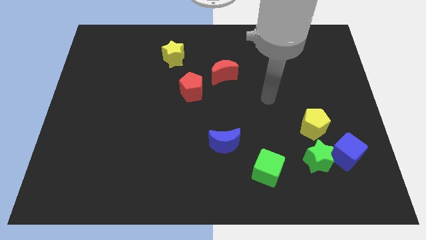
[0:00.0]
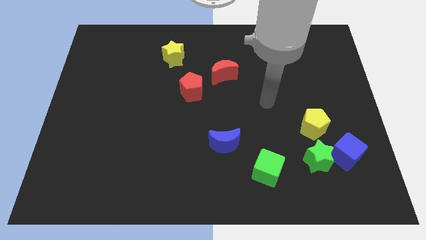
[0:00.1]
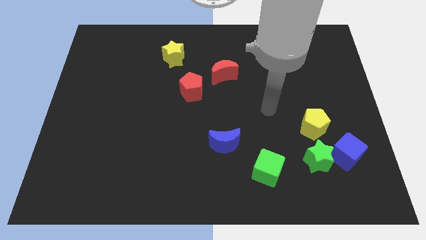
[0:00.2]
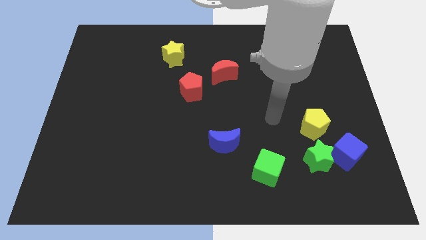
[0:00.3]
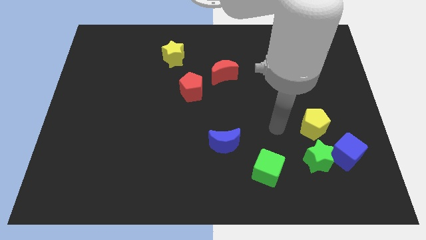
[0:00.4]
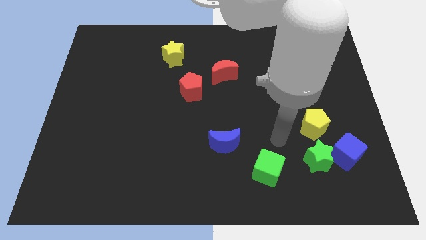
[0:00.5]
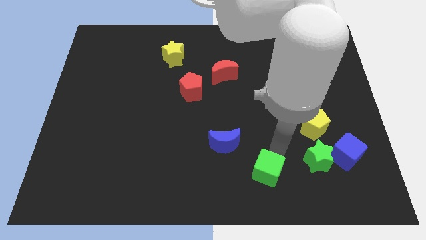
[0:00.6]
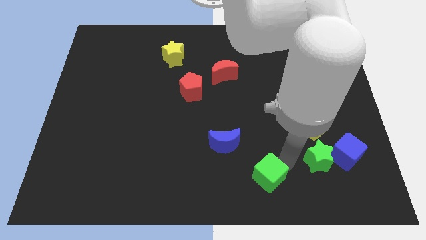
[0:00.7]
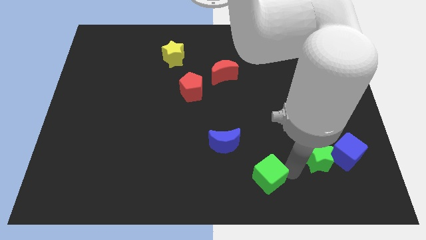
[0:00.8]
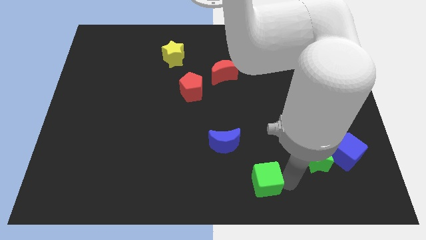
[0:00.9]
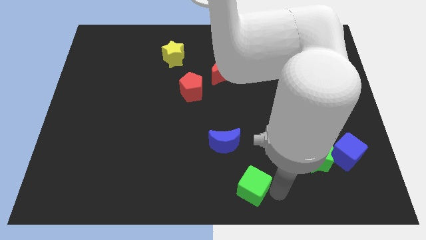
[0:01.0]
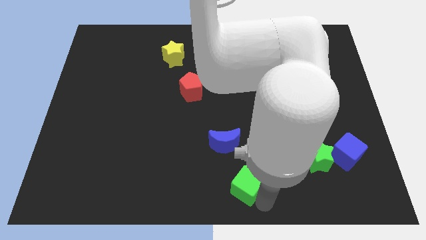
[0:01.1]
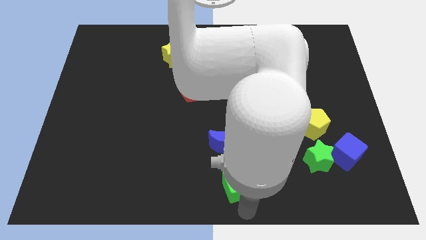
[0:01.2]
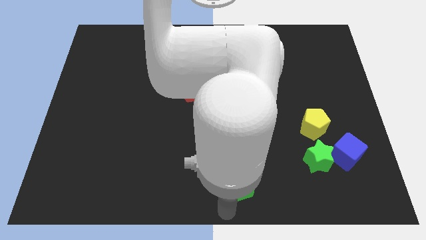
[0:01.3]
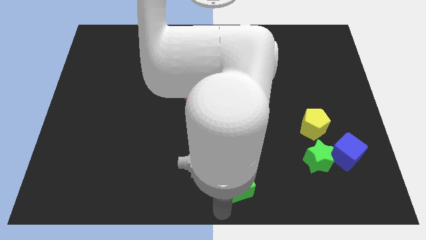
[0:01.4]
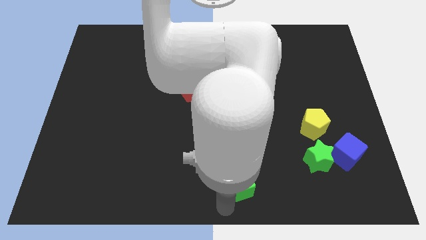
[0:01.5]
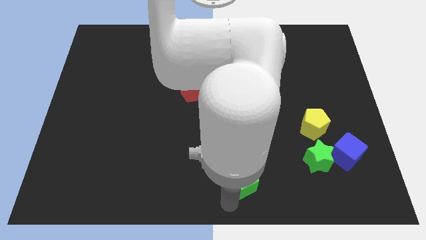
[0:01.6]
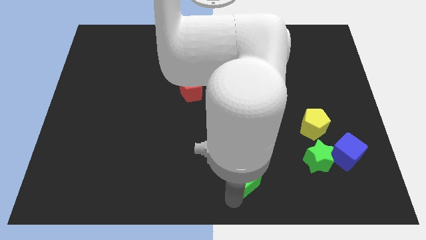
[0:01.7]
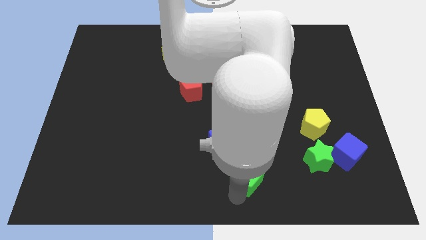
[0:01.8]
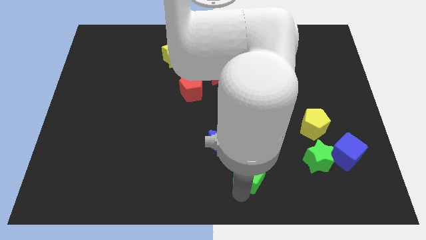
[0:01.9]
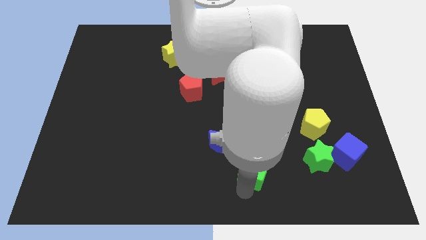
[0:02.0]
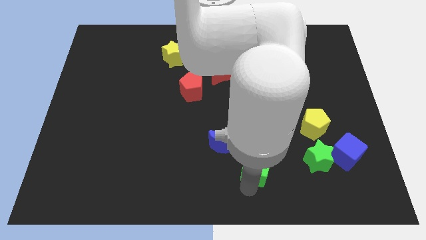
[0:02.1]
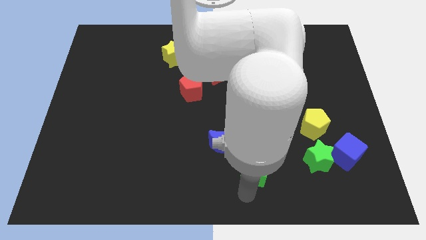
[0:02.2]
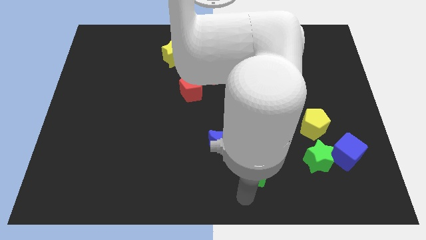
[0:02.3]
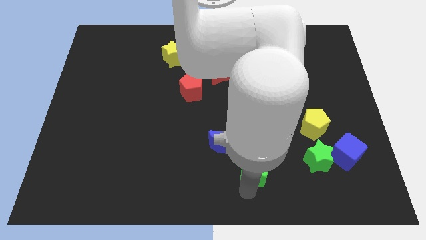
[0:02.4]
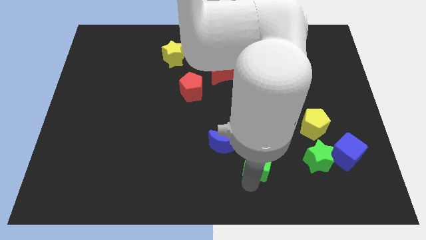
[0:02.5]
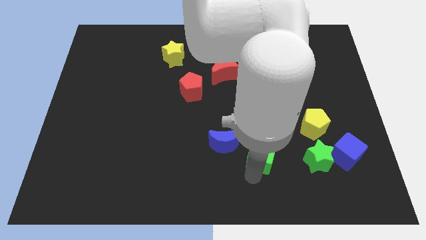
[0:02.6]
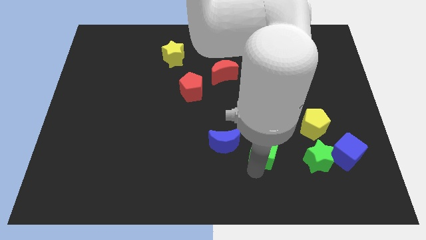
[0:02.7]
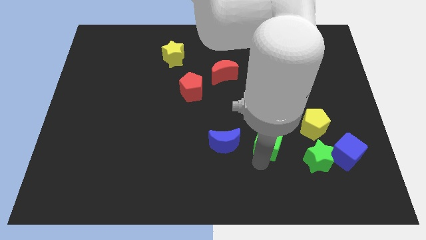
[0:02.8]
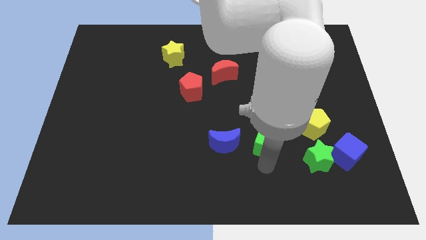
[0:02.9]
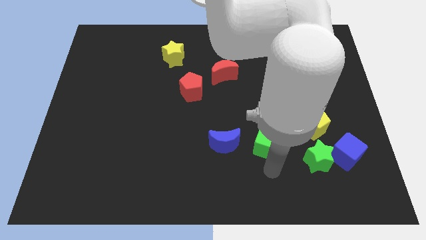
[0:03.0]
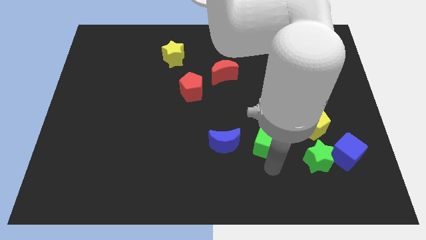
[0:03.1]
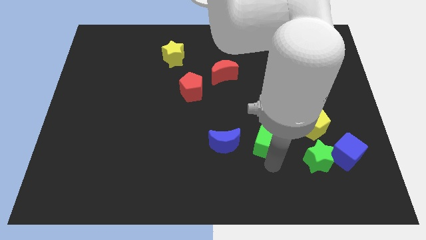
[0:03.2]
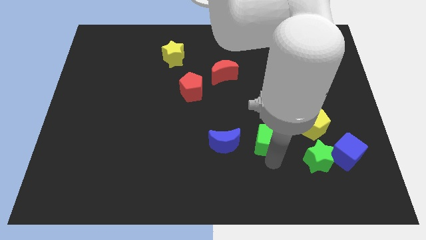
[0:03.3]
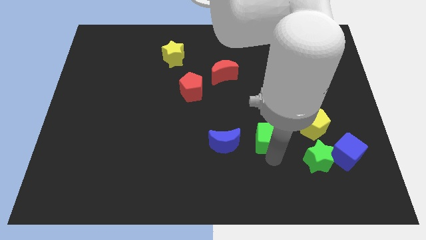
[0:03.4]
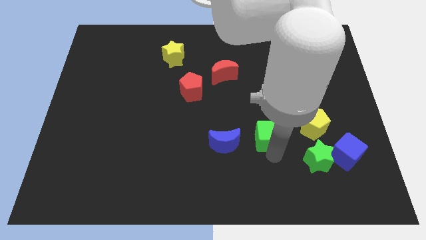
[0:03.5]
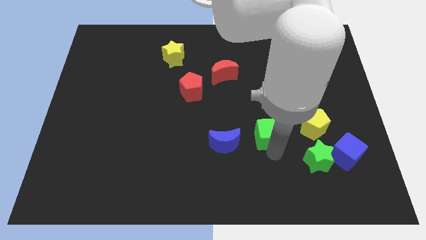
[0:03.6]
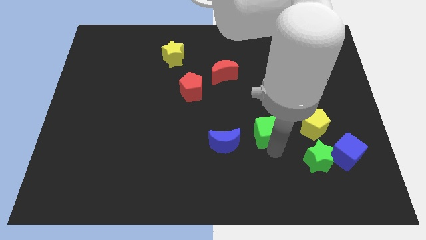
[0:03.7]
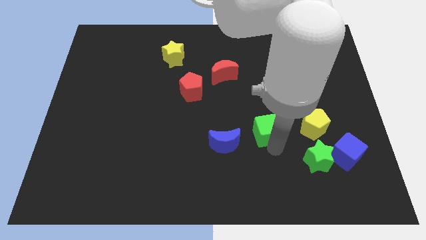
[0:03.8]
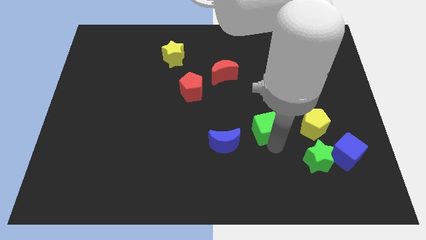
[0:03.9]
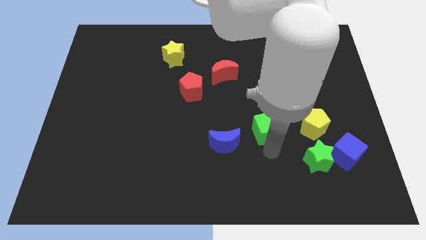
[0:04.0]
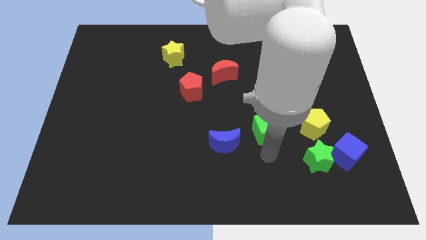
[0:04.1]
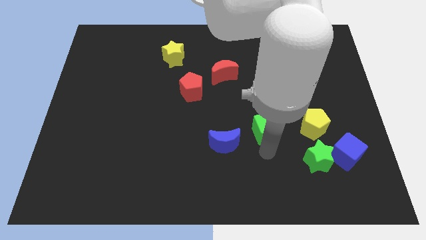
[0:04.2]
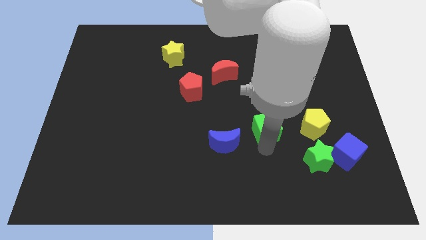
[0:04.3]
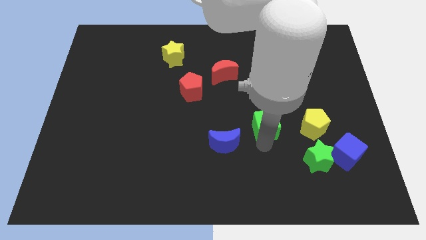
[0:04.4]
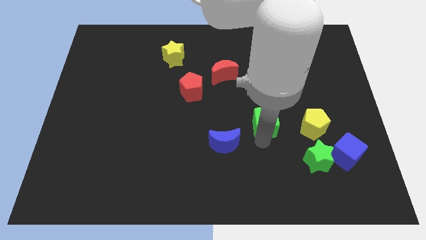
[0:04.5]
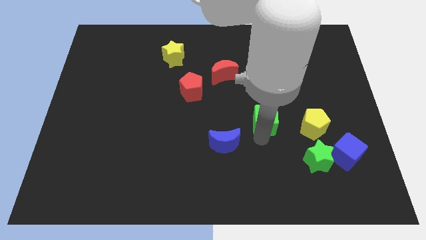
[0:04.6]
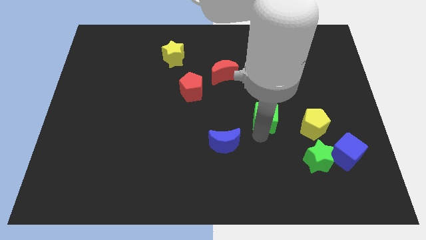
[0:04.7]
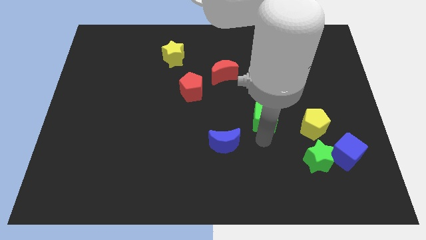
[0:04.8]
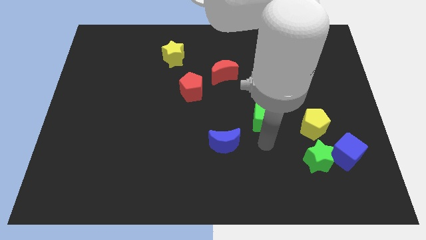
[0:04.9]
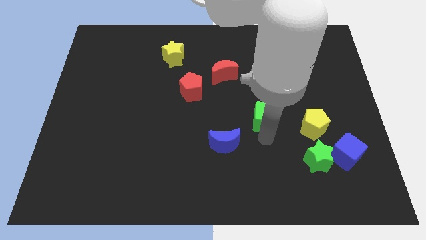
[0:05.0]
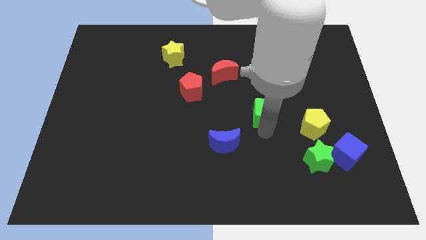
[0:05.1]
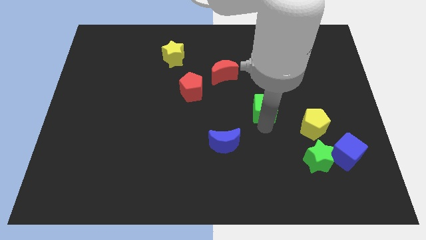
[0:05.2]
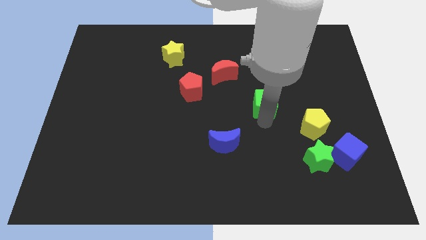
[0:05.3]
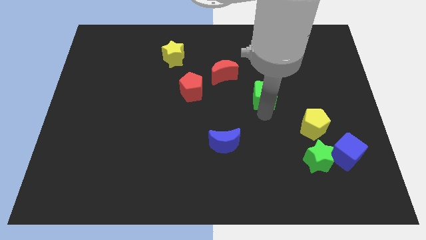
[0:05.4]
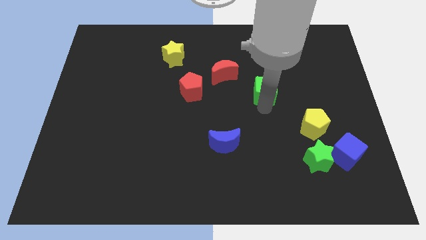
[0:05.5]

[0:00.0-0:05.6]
slide the green cube upwards

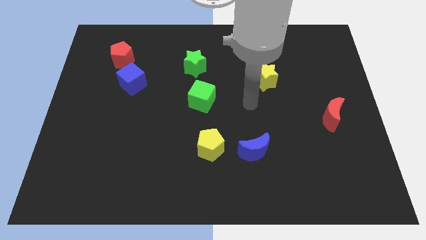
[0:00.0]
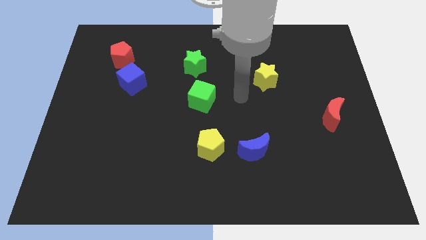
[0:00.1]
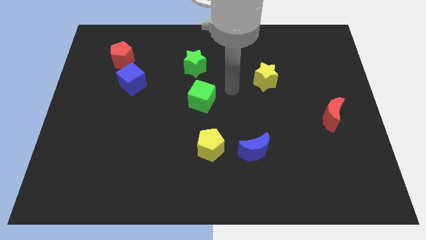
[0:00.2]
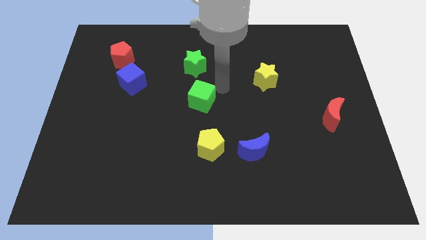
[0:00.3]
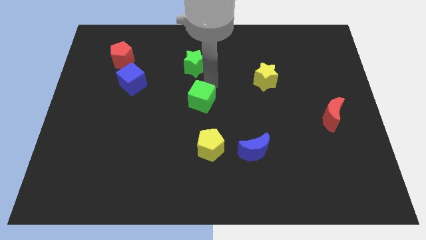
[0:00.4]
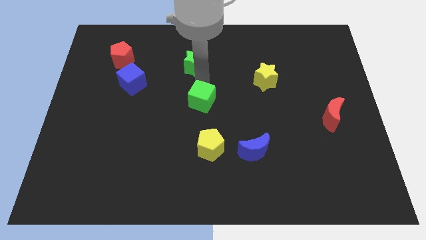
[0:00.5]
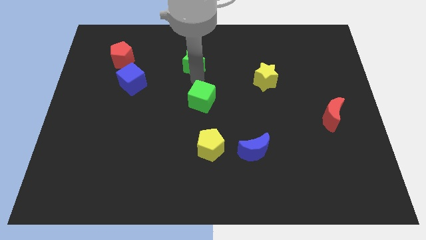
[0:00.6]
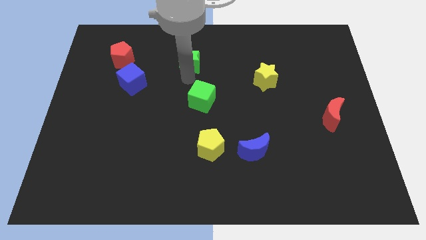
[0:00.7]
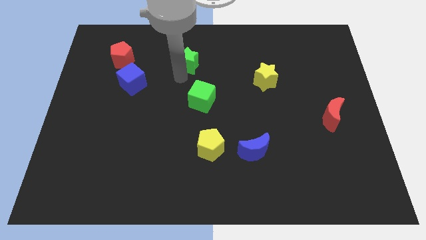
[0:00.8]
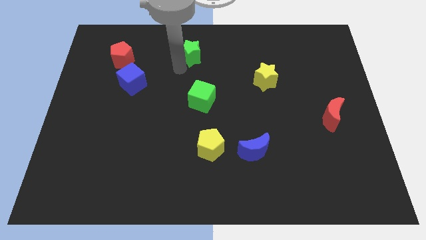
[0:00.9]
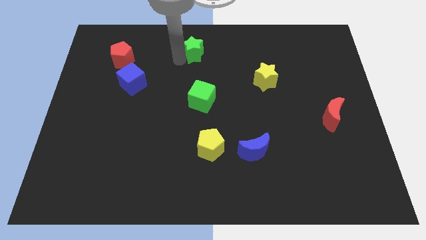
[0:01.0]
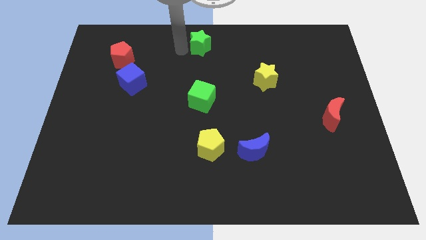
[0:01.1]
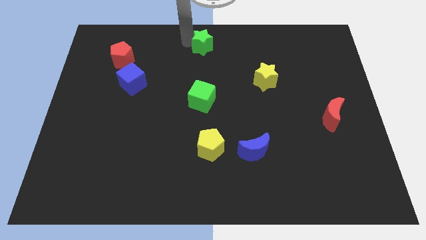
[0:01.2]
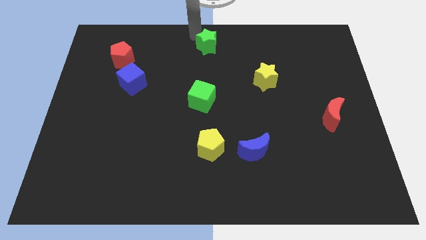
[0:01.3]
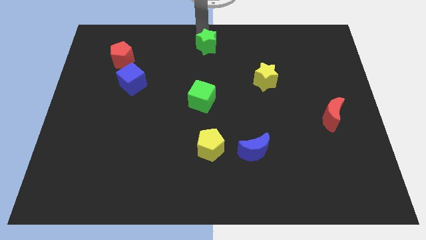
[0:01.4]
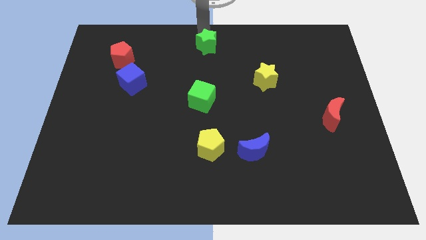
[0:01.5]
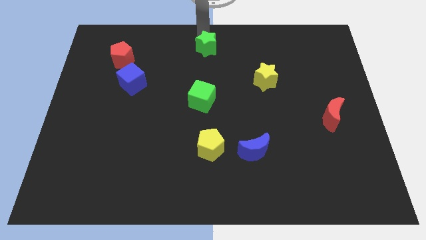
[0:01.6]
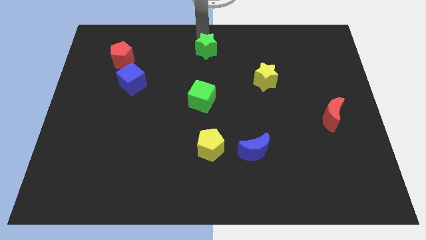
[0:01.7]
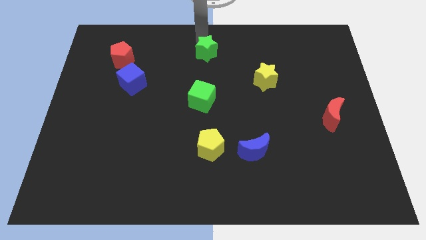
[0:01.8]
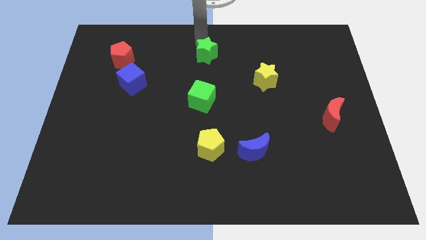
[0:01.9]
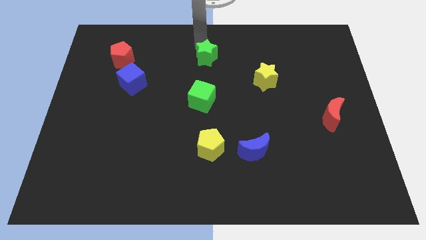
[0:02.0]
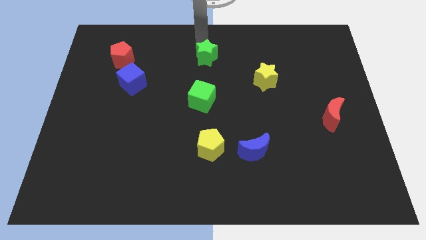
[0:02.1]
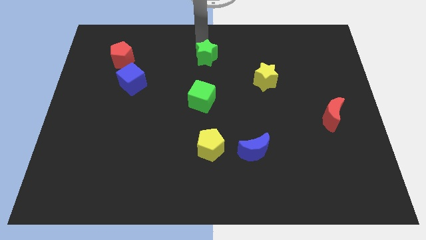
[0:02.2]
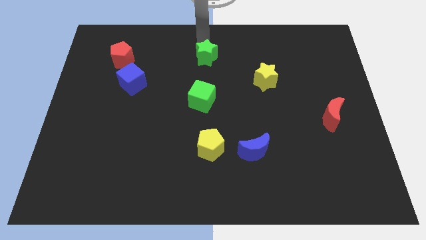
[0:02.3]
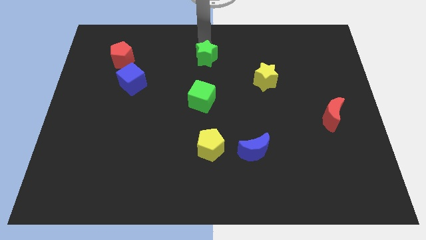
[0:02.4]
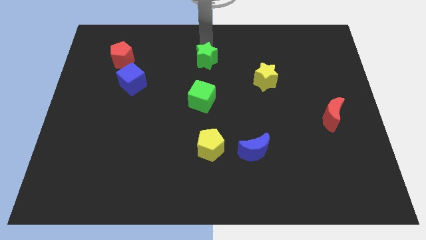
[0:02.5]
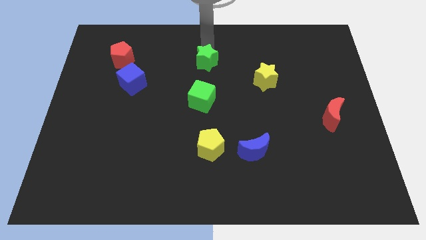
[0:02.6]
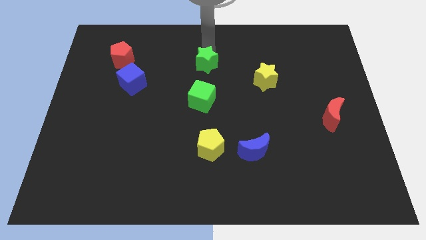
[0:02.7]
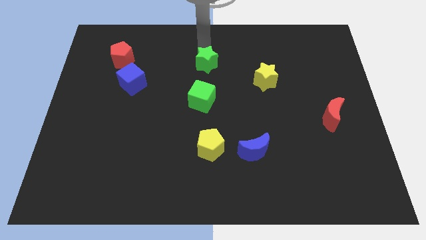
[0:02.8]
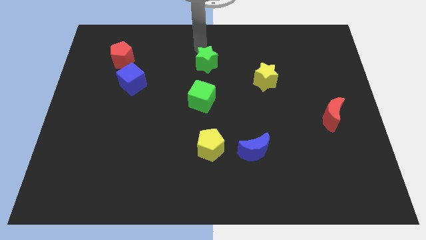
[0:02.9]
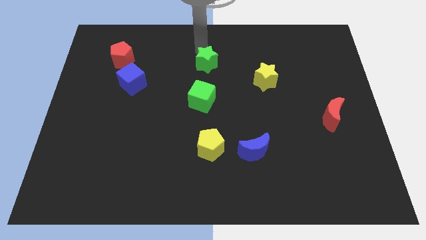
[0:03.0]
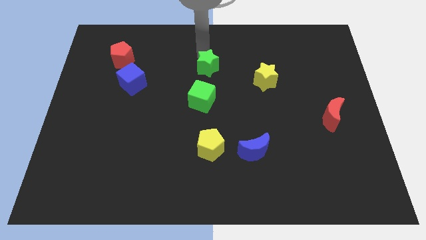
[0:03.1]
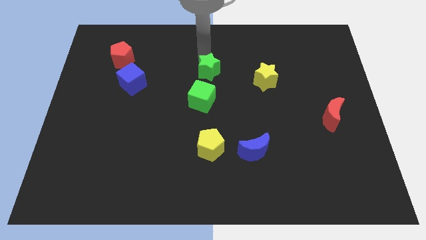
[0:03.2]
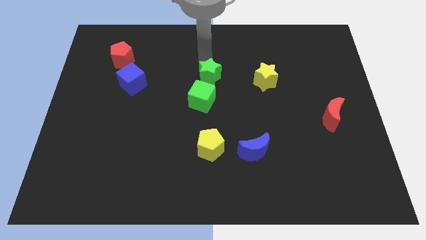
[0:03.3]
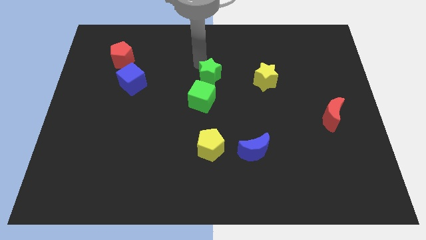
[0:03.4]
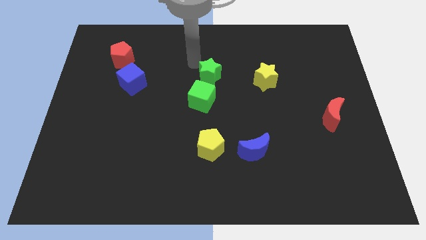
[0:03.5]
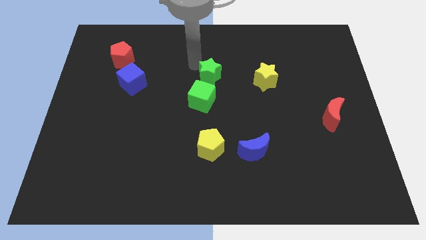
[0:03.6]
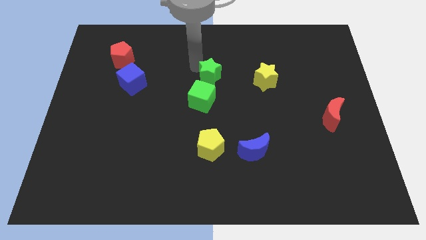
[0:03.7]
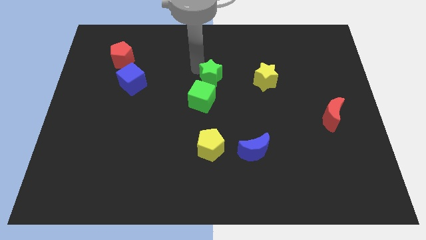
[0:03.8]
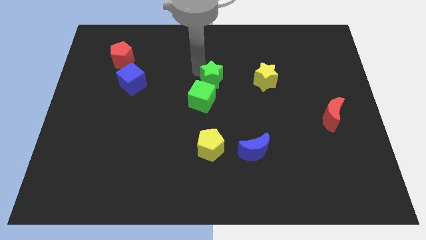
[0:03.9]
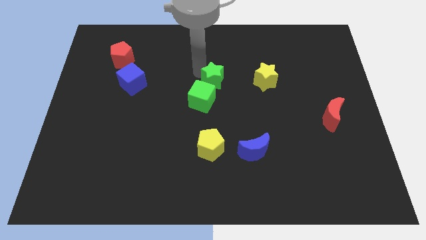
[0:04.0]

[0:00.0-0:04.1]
slide the green star down and to the right diagonally a bit
